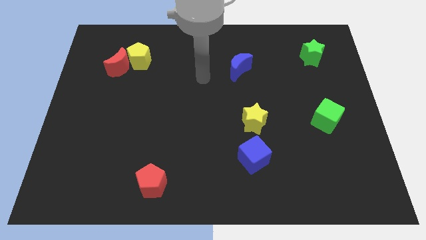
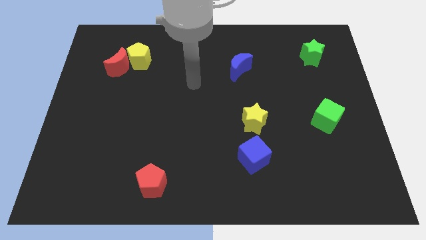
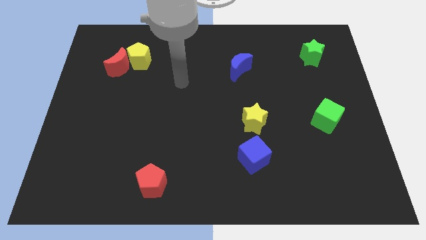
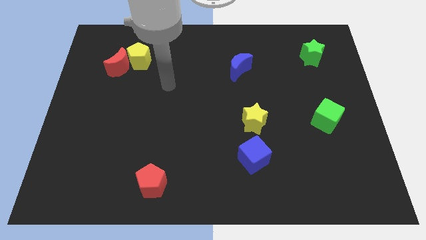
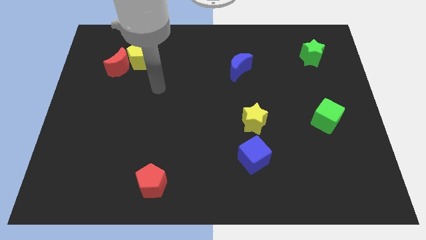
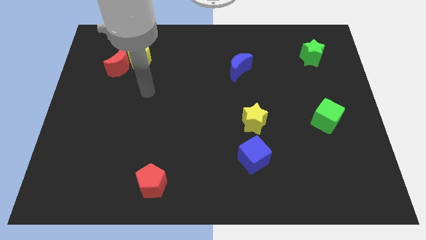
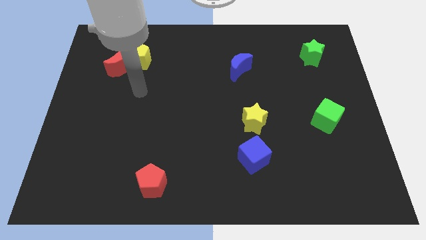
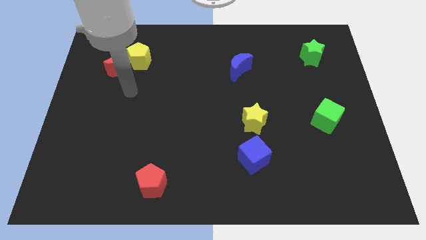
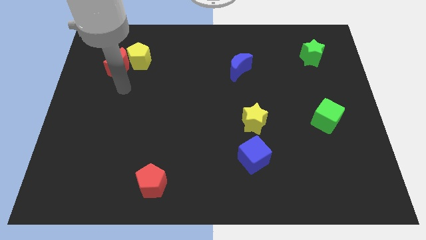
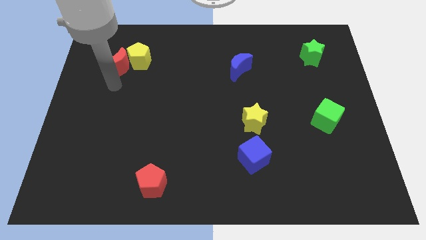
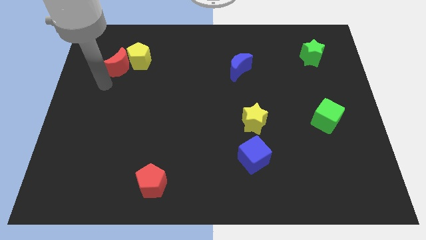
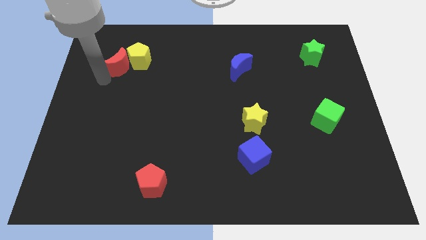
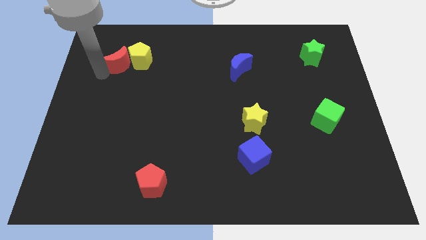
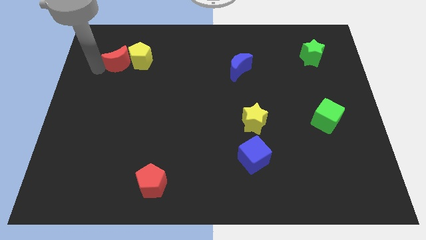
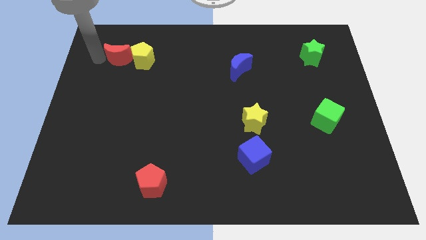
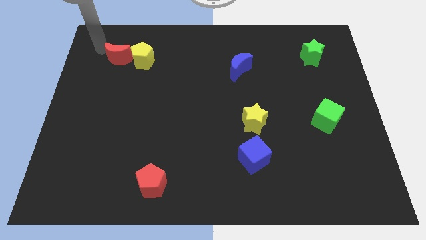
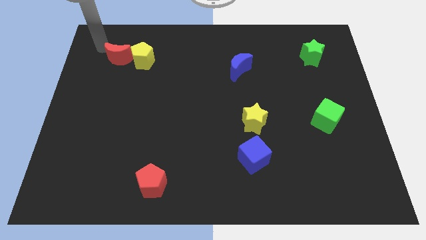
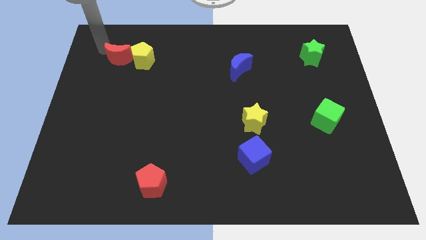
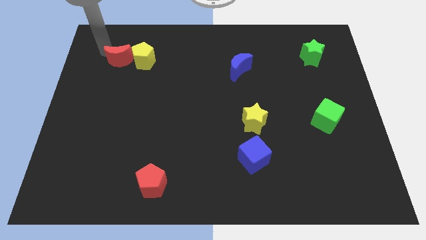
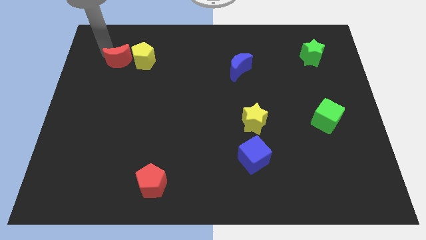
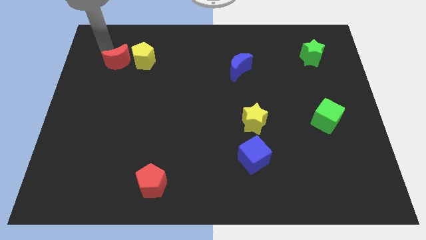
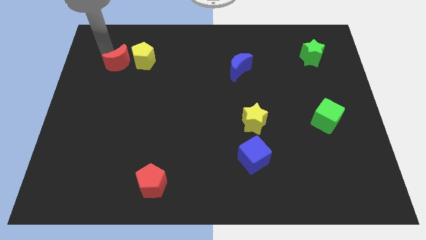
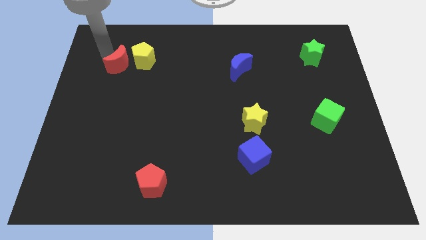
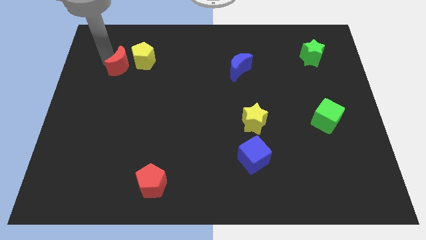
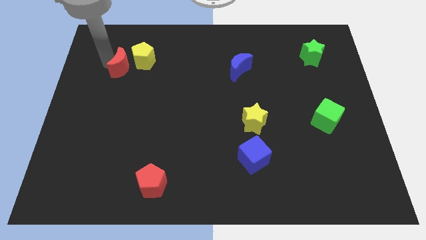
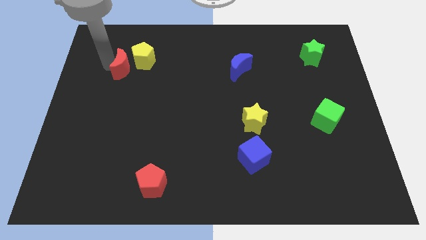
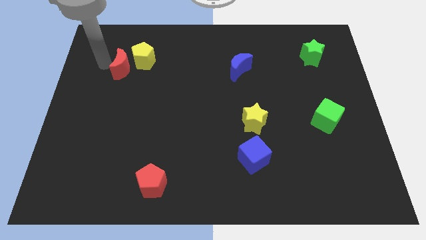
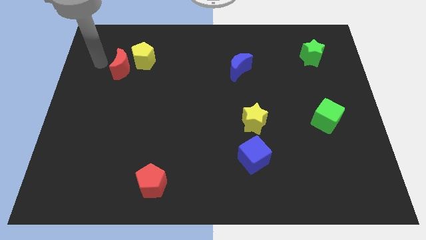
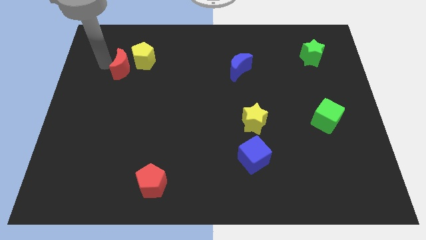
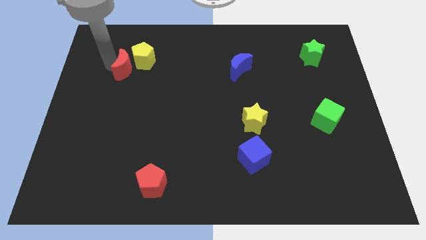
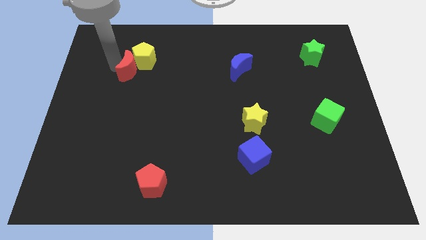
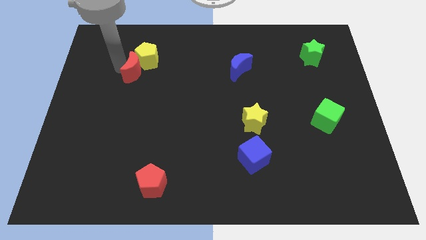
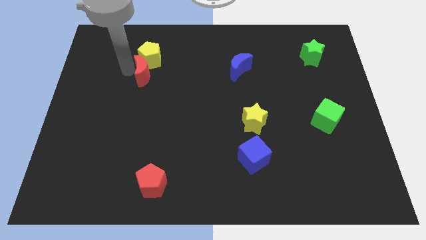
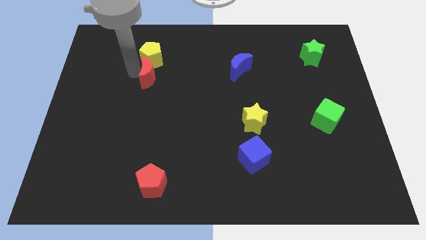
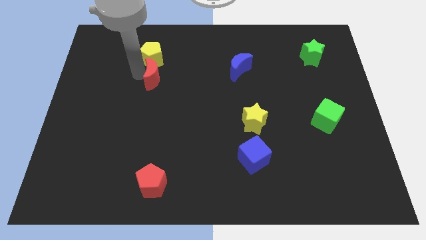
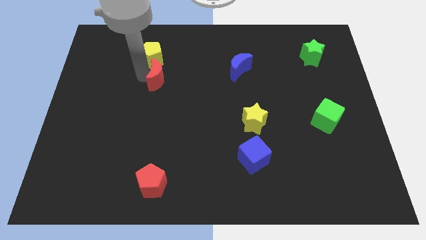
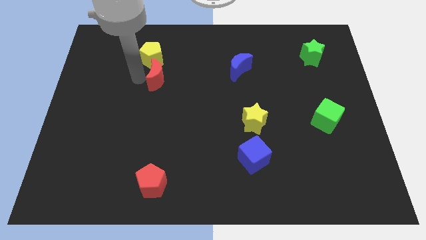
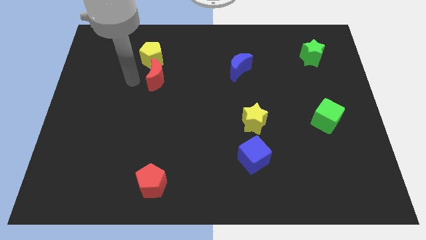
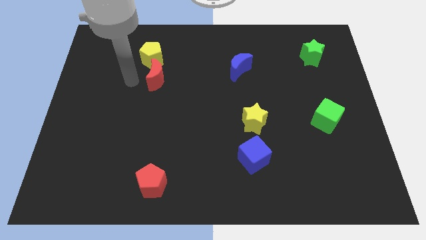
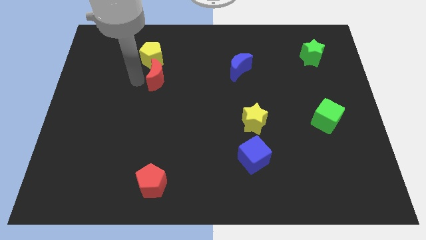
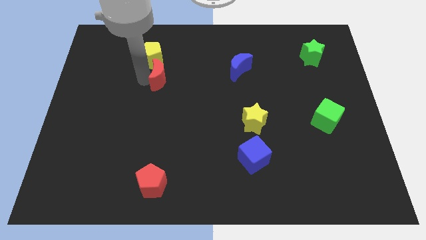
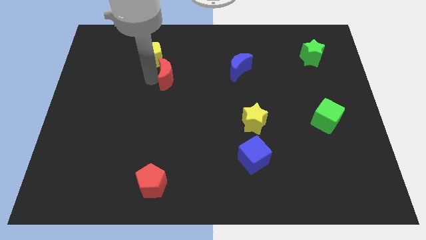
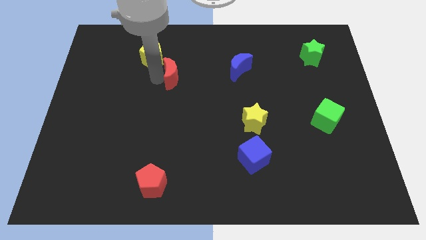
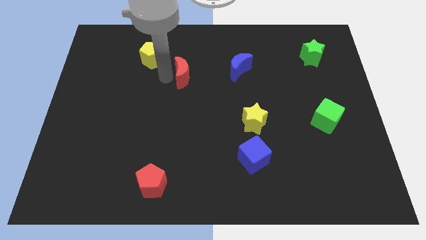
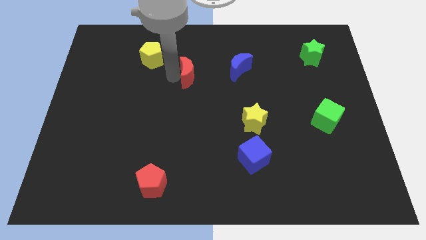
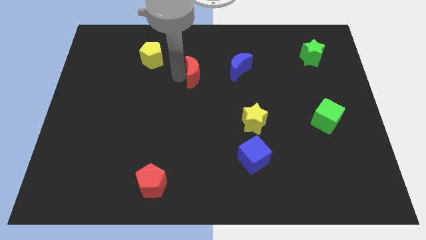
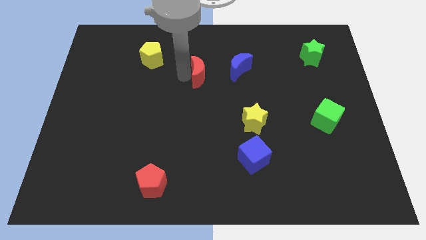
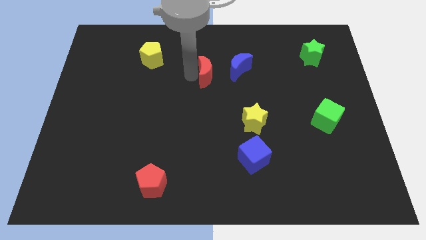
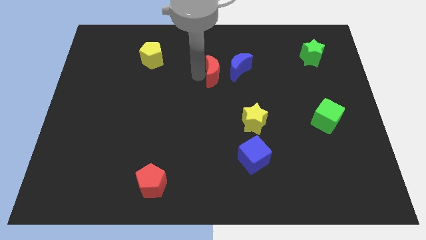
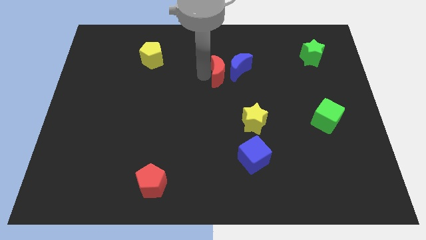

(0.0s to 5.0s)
move the red moon close to the blue moon

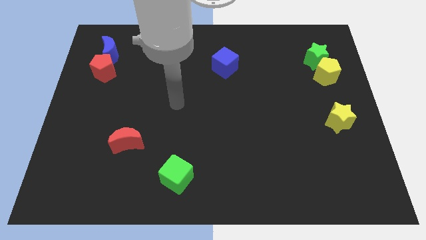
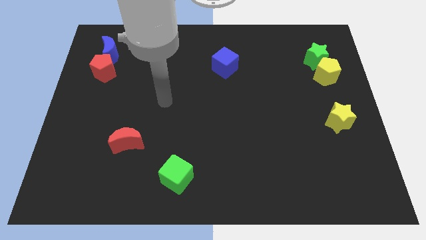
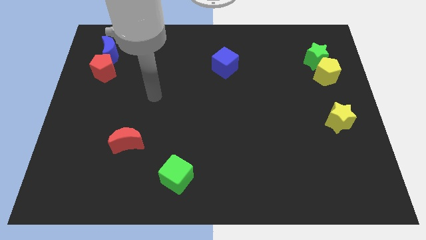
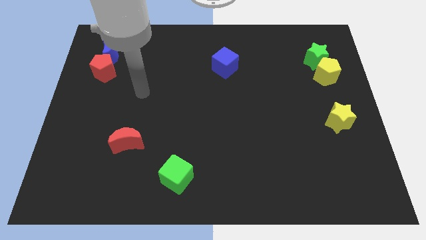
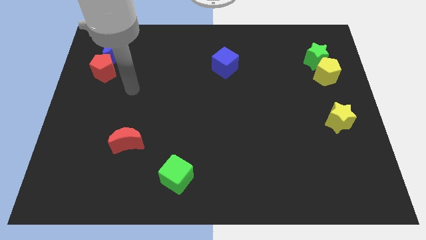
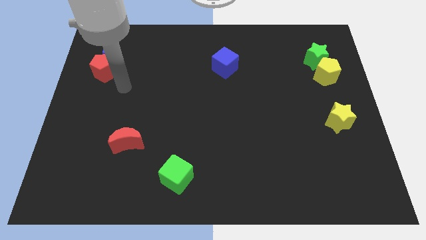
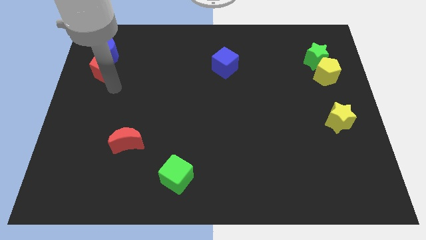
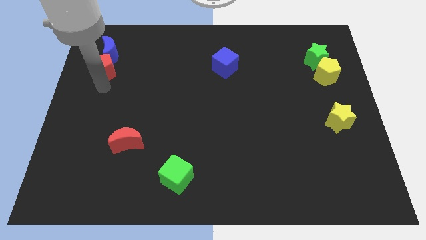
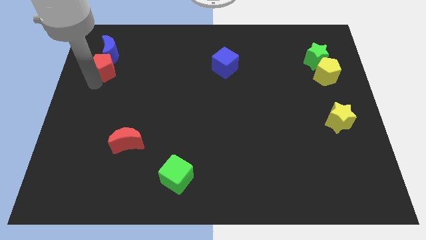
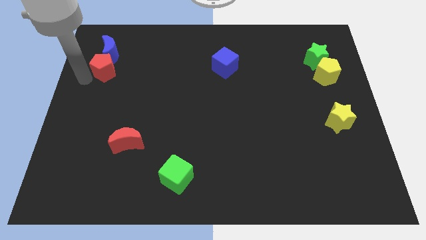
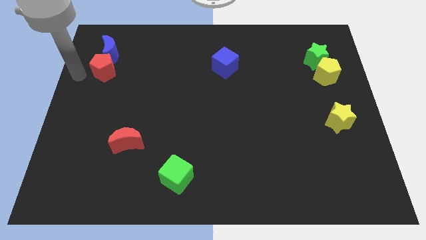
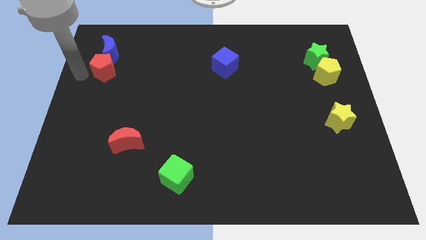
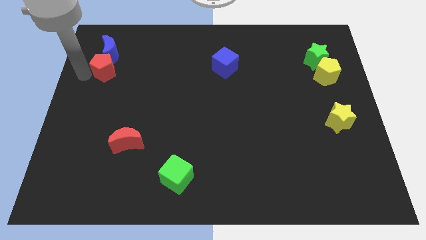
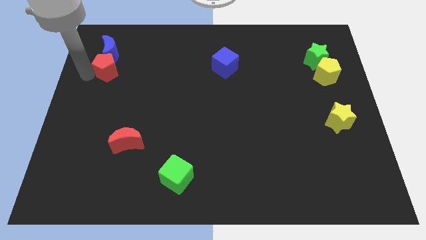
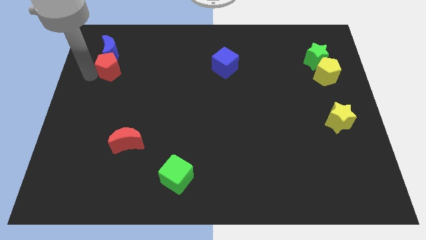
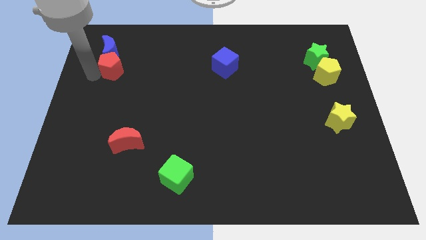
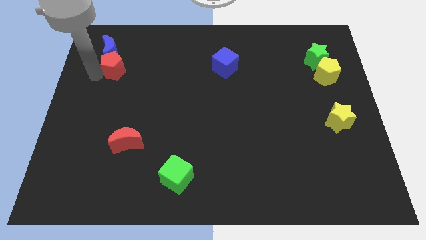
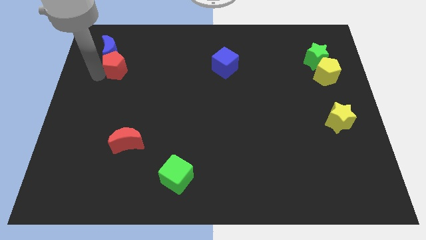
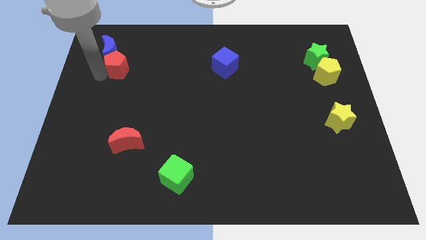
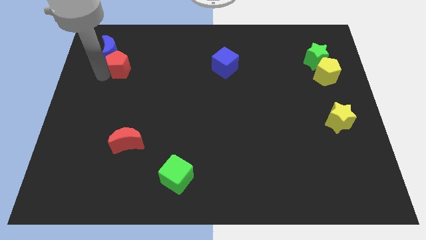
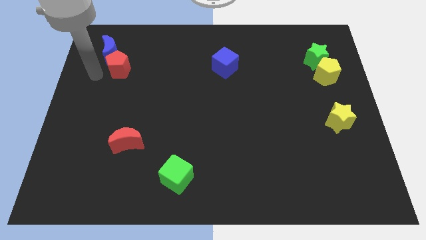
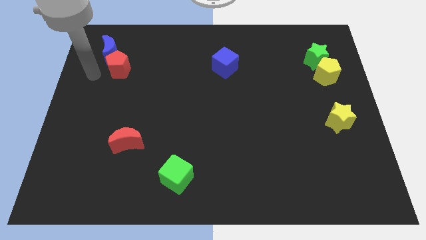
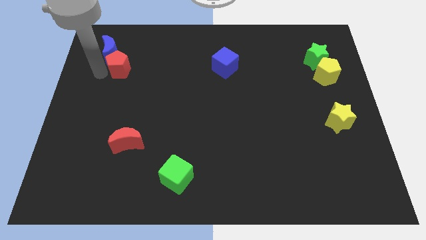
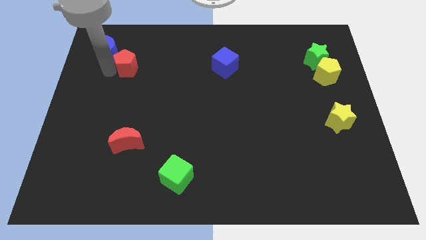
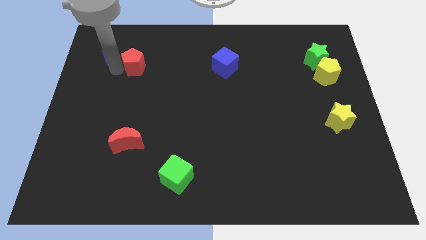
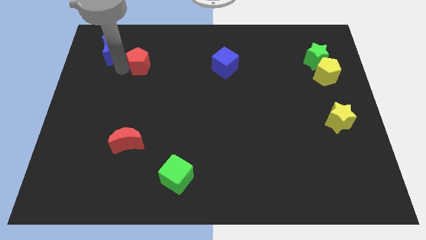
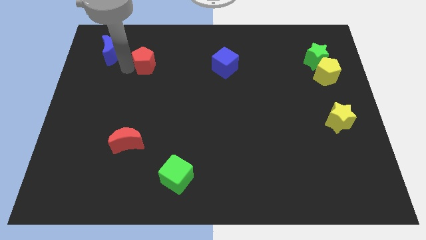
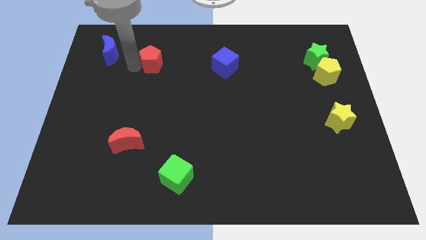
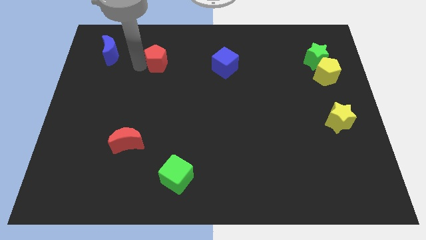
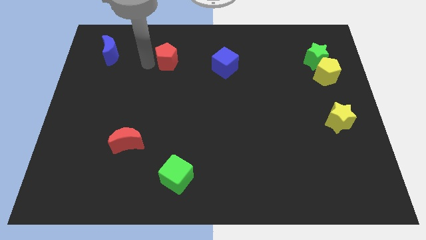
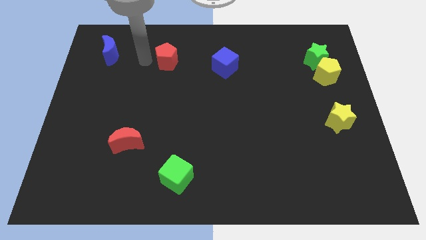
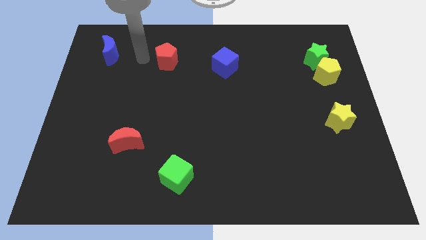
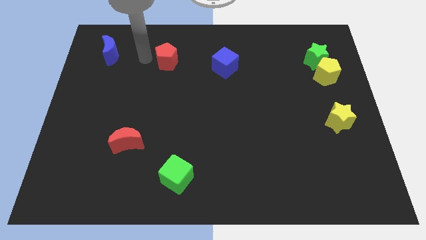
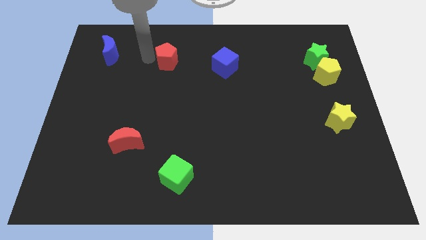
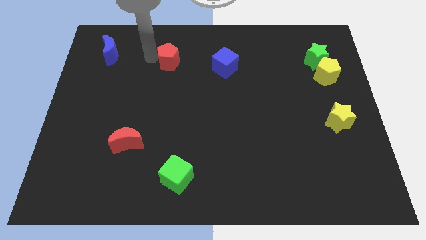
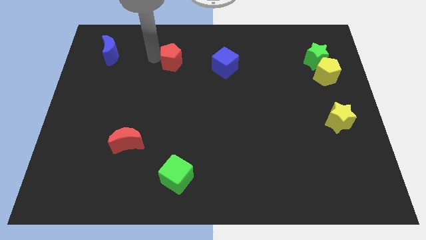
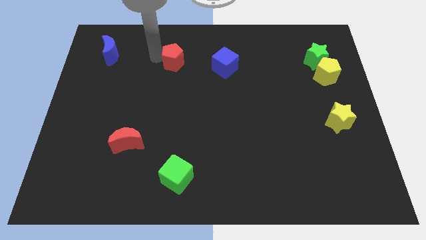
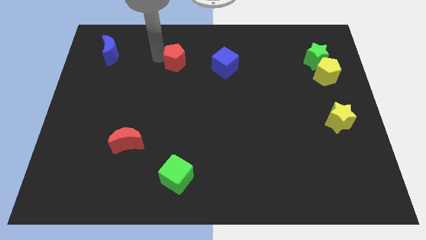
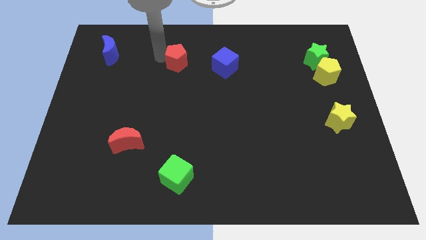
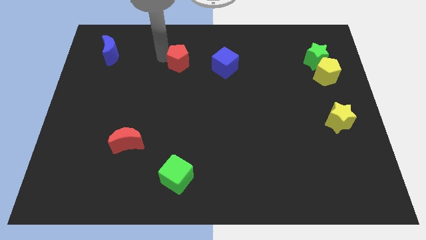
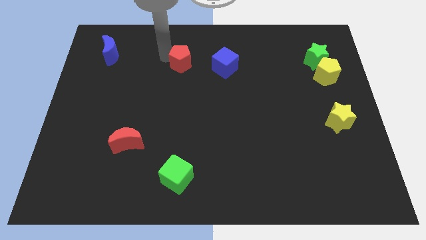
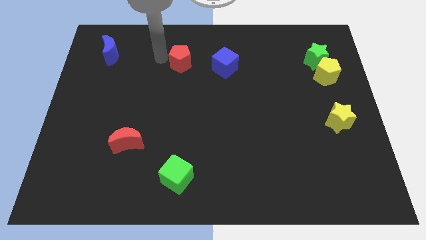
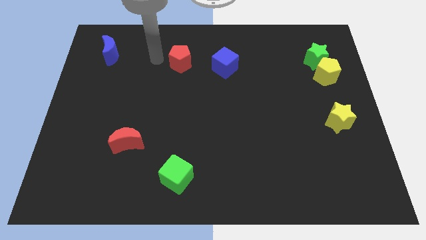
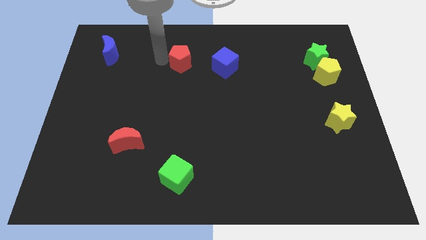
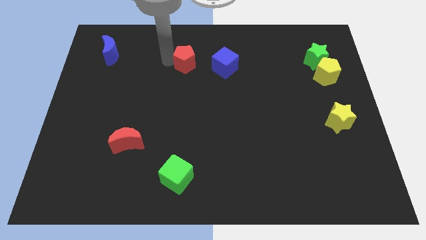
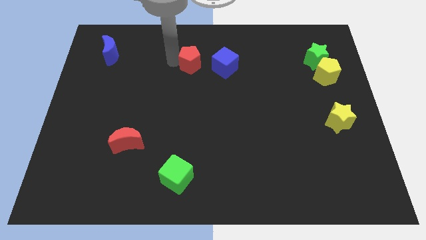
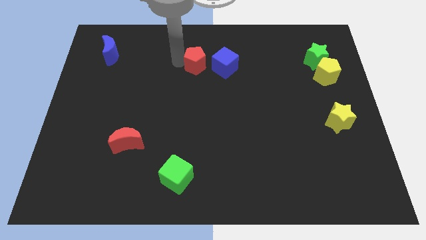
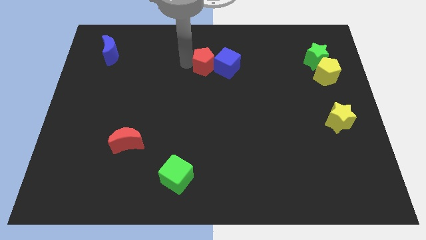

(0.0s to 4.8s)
move the red pentagon to the blue cube
